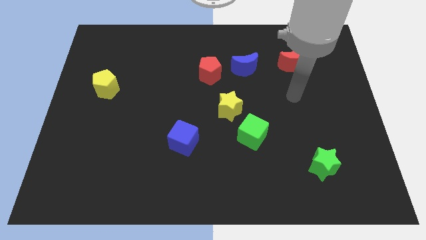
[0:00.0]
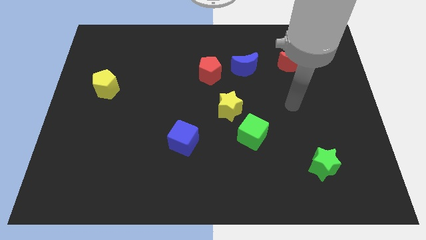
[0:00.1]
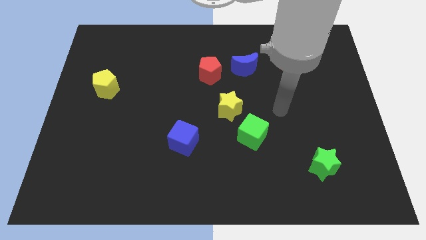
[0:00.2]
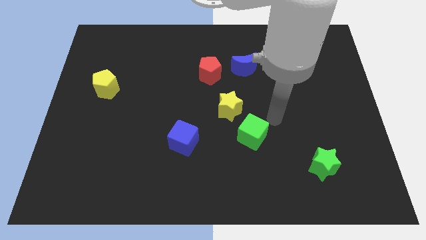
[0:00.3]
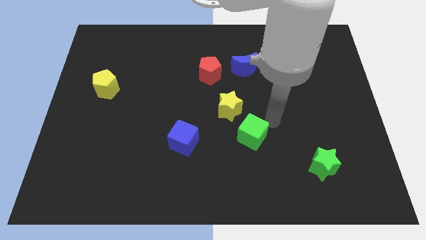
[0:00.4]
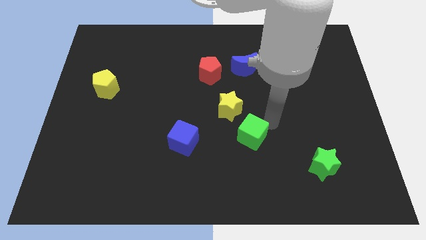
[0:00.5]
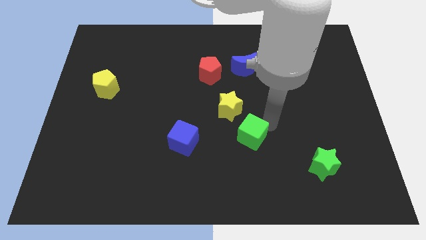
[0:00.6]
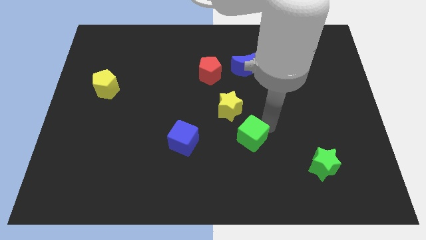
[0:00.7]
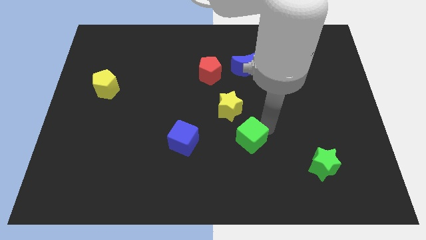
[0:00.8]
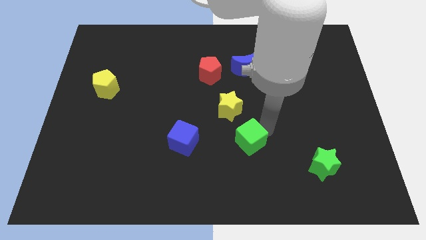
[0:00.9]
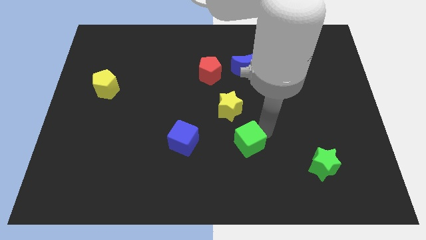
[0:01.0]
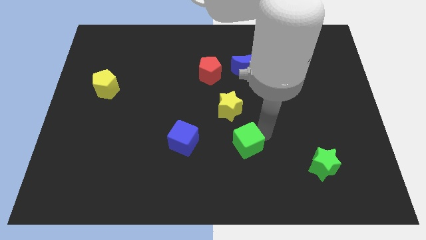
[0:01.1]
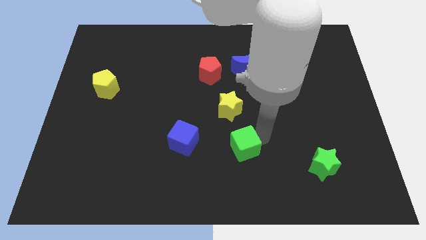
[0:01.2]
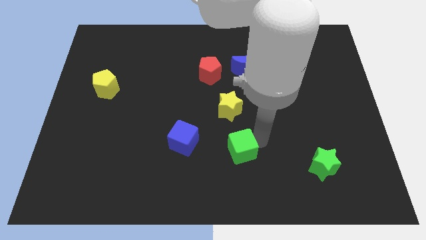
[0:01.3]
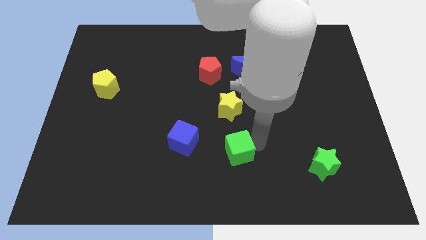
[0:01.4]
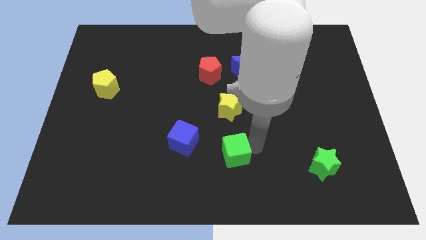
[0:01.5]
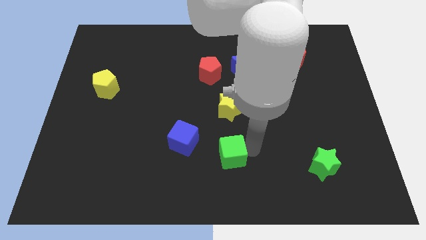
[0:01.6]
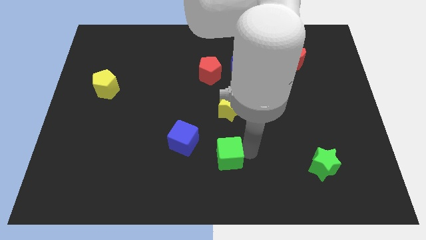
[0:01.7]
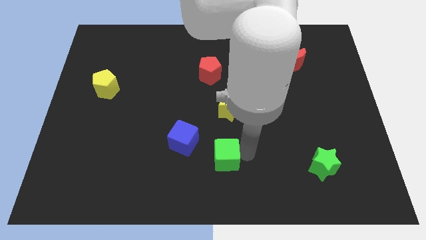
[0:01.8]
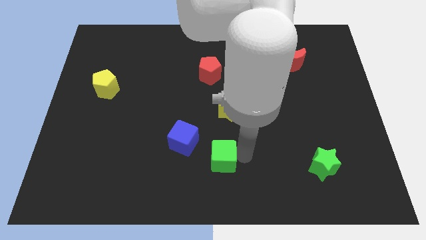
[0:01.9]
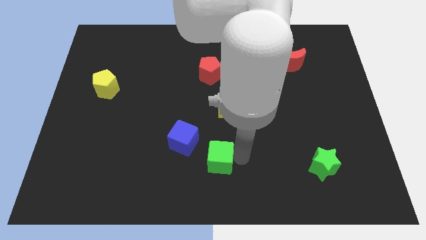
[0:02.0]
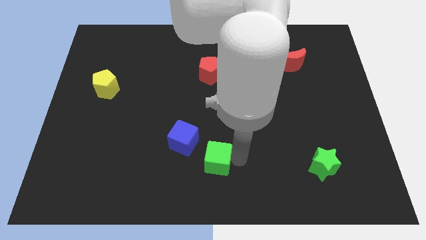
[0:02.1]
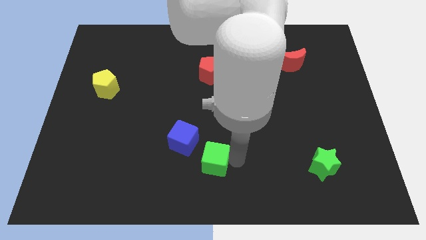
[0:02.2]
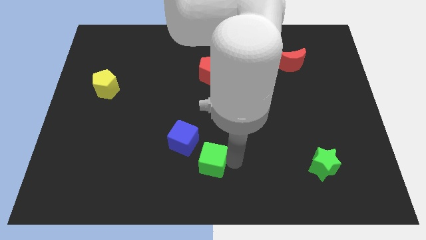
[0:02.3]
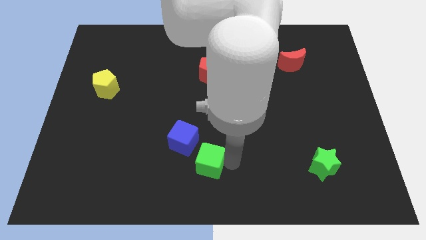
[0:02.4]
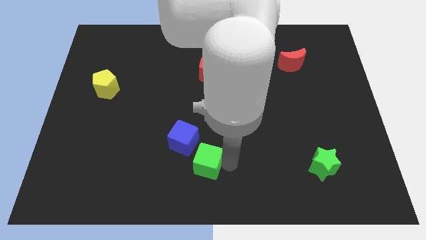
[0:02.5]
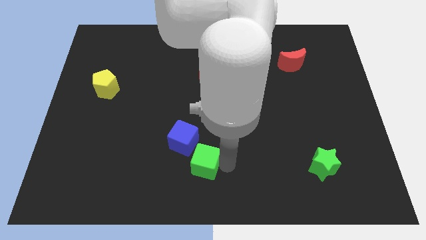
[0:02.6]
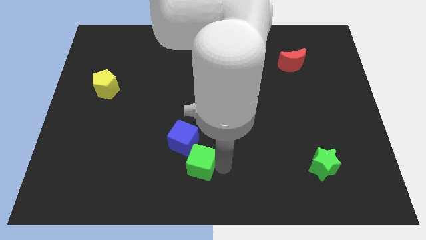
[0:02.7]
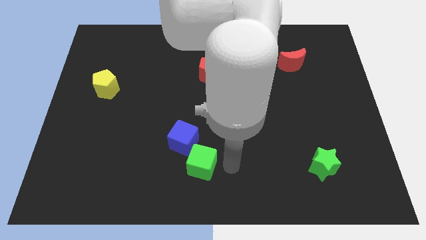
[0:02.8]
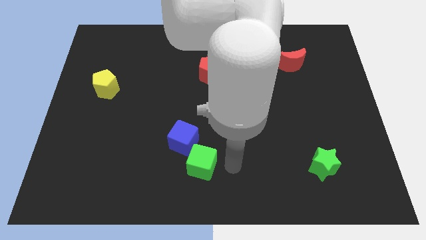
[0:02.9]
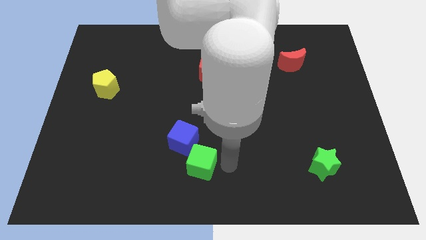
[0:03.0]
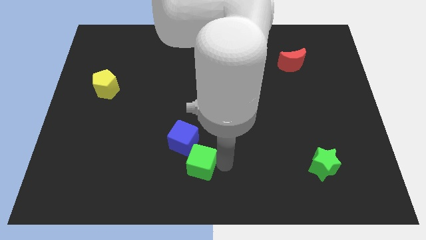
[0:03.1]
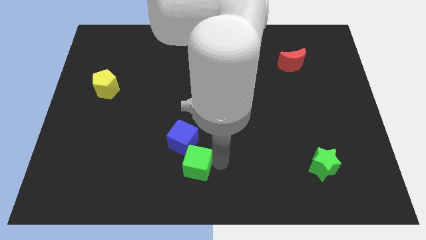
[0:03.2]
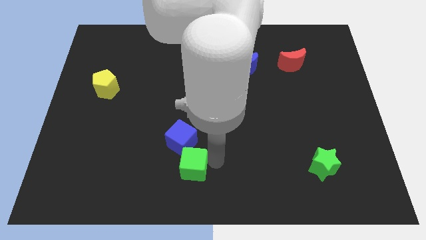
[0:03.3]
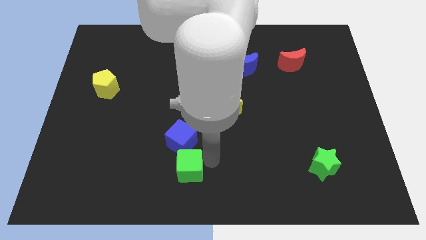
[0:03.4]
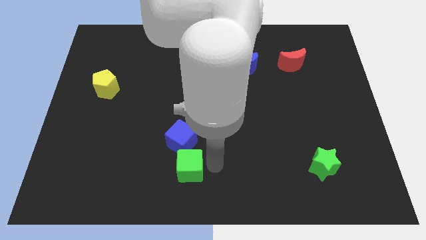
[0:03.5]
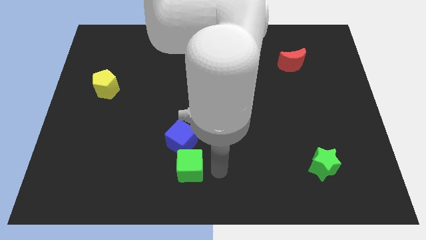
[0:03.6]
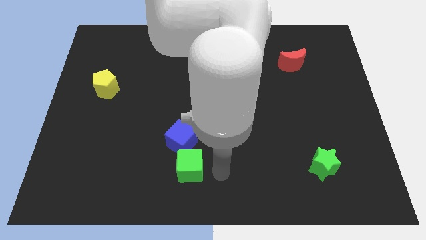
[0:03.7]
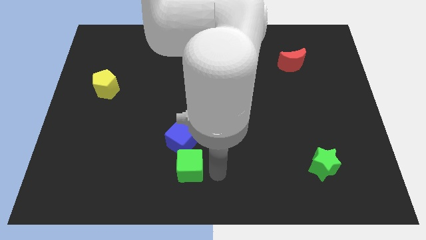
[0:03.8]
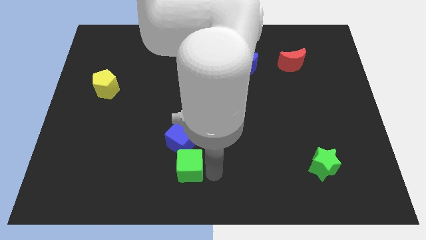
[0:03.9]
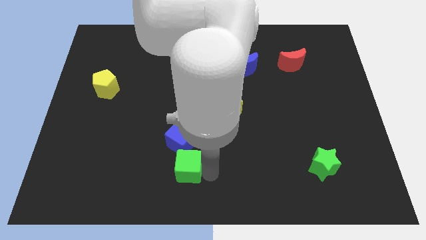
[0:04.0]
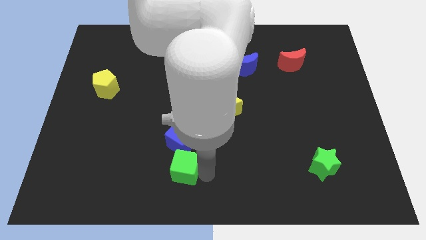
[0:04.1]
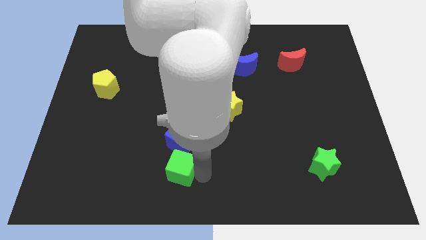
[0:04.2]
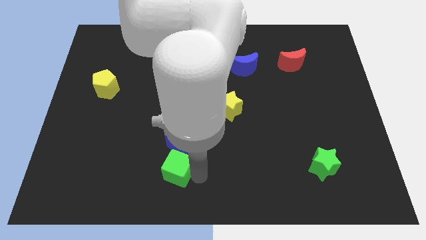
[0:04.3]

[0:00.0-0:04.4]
push the green cube to the bottom left side of the blue cube

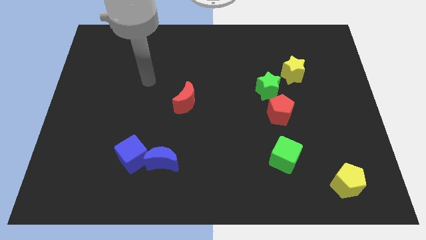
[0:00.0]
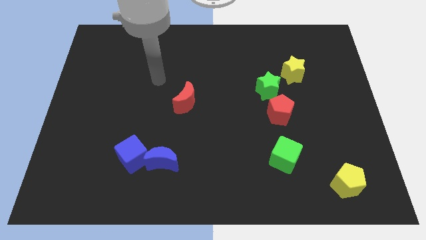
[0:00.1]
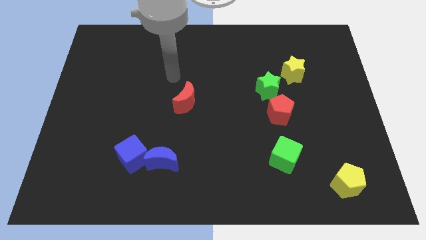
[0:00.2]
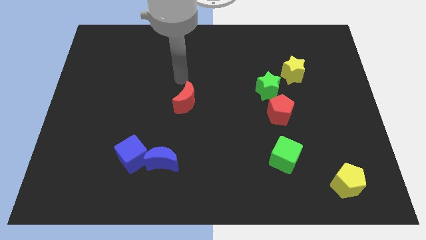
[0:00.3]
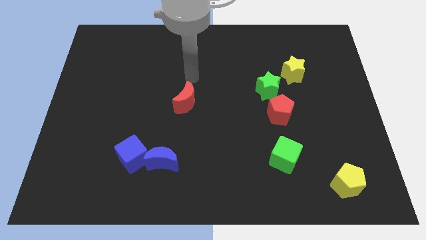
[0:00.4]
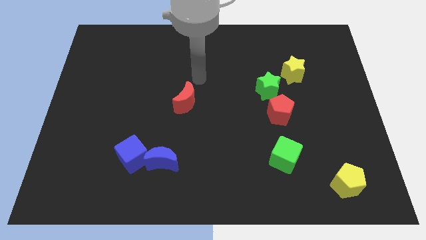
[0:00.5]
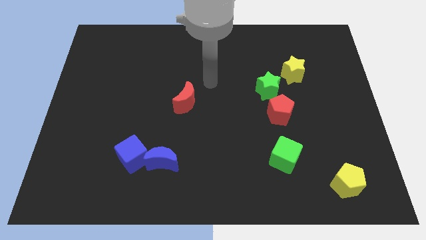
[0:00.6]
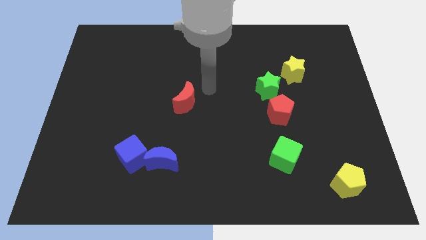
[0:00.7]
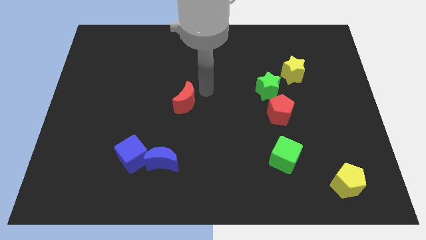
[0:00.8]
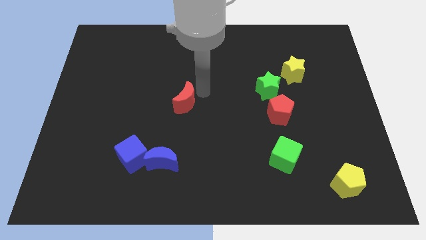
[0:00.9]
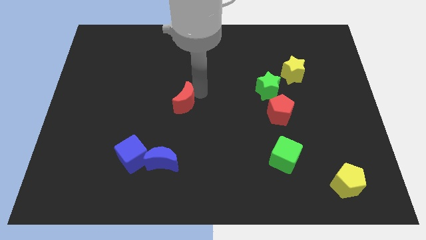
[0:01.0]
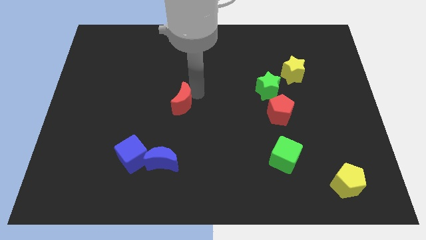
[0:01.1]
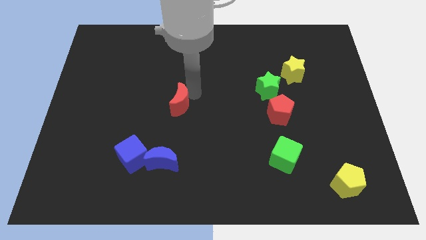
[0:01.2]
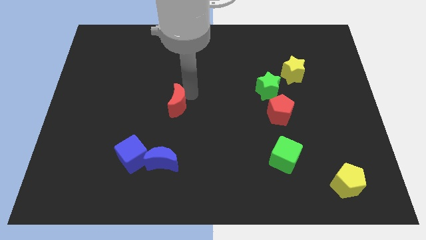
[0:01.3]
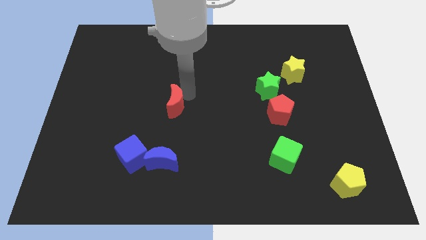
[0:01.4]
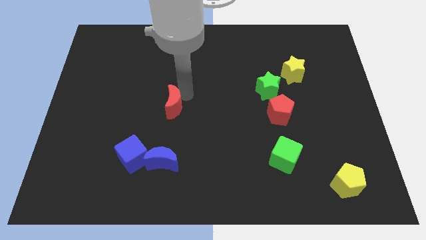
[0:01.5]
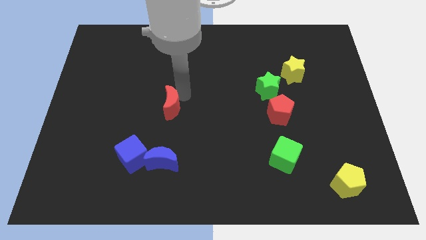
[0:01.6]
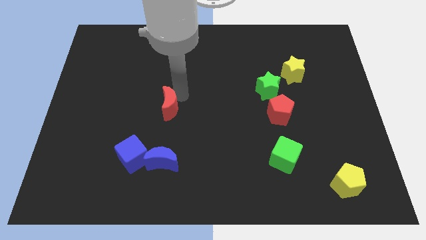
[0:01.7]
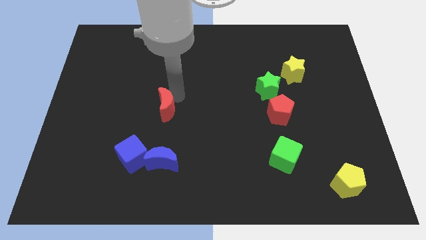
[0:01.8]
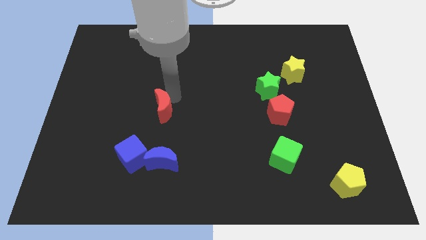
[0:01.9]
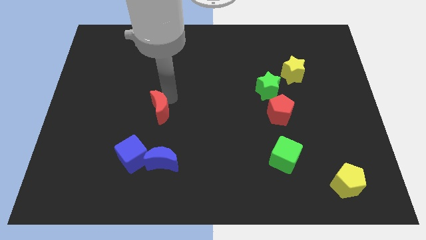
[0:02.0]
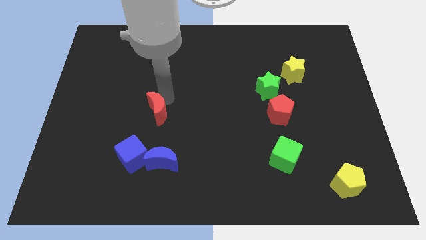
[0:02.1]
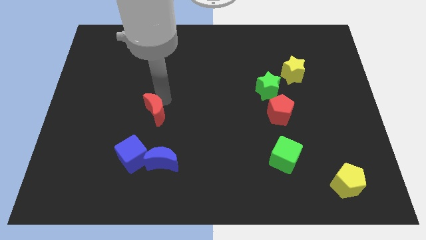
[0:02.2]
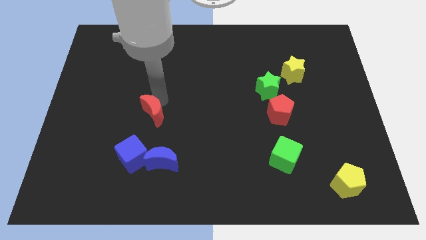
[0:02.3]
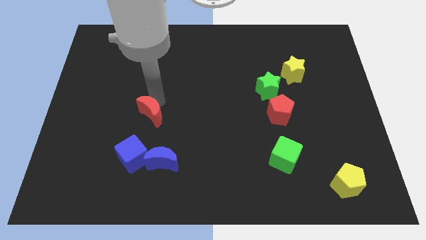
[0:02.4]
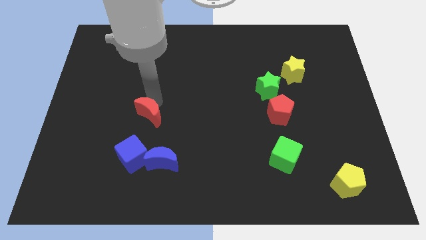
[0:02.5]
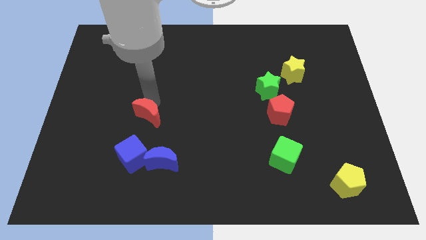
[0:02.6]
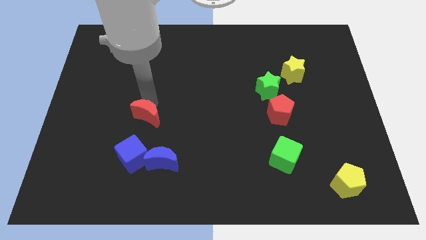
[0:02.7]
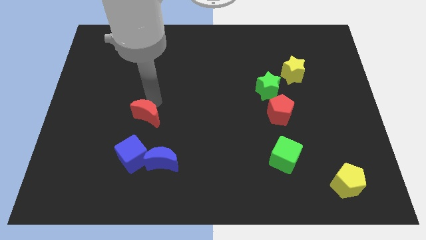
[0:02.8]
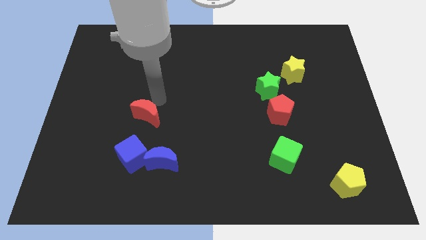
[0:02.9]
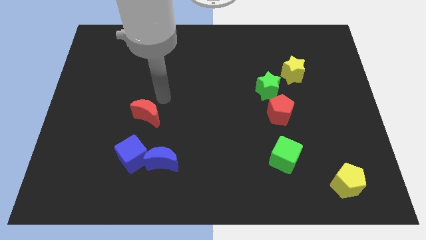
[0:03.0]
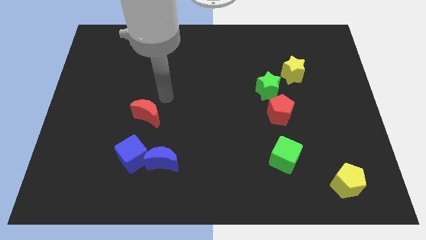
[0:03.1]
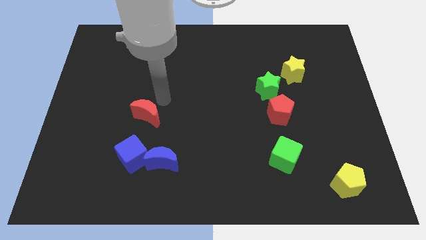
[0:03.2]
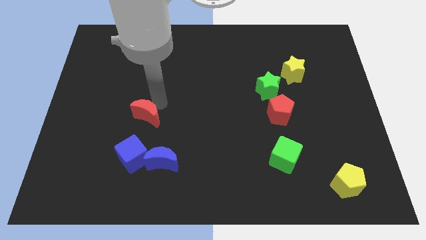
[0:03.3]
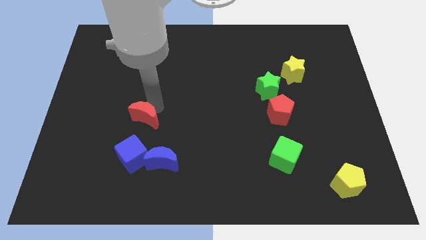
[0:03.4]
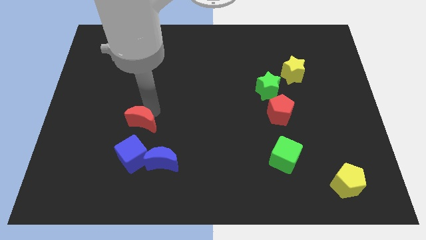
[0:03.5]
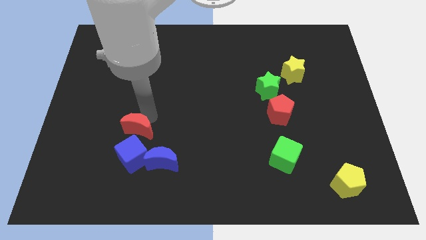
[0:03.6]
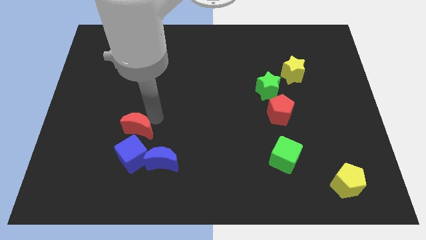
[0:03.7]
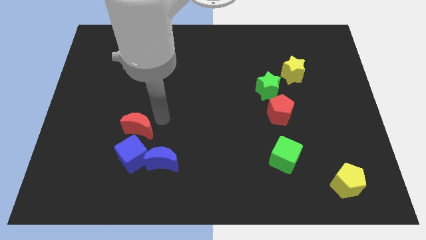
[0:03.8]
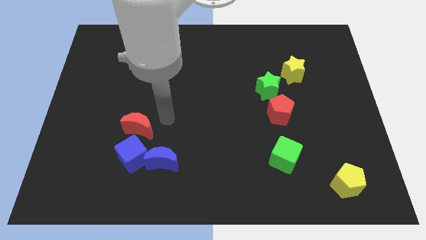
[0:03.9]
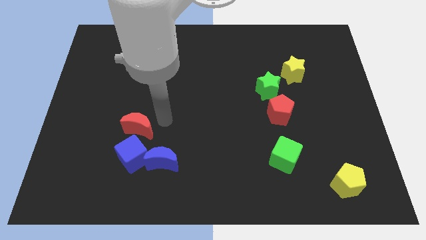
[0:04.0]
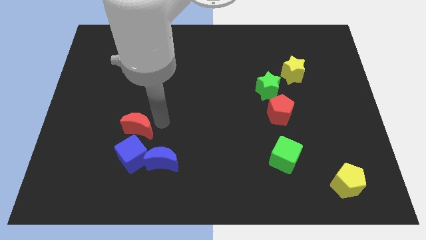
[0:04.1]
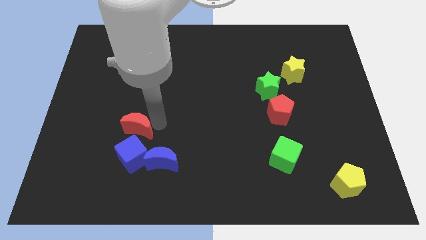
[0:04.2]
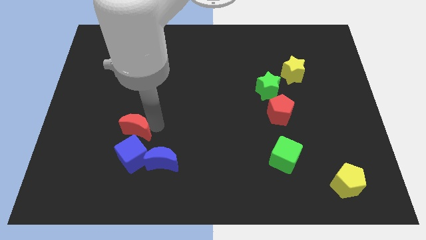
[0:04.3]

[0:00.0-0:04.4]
push the red moon to the top left side of the blue cube
